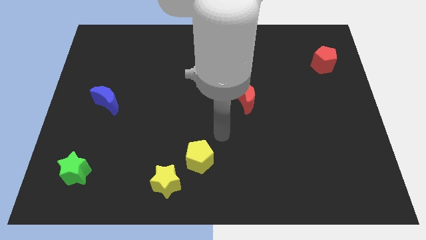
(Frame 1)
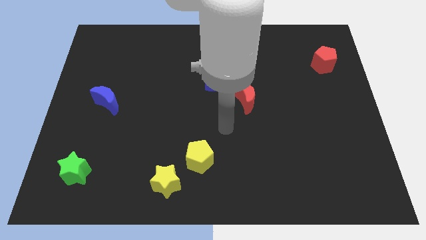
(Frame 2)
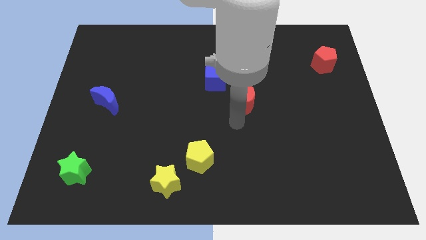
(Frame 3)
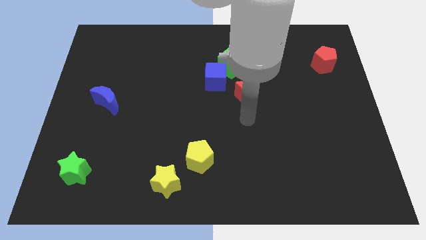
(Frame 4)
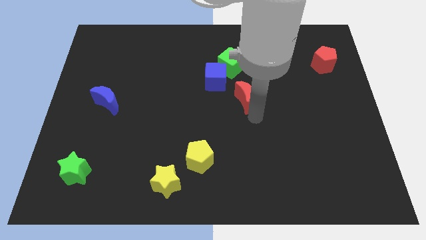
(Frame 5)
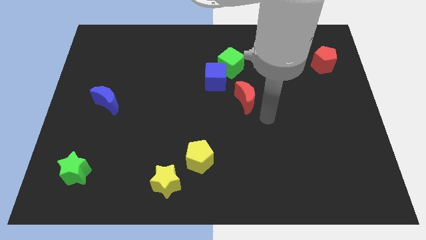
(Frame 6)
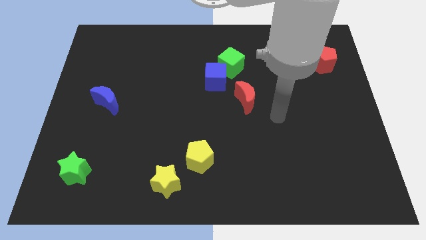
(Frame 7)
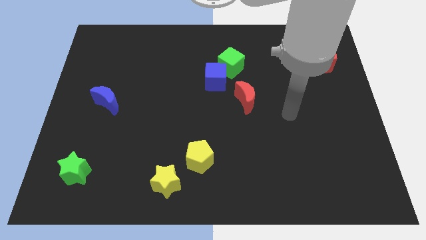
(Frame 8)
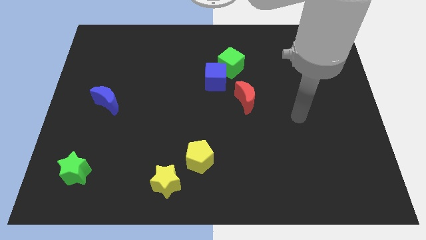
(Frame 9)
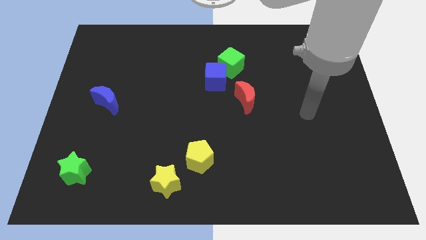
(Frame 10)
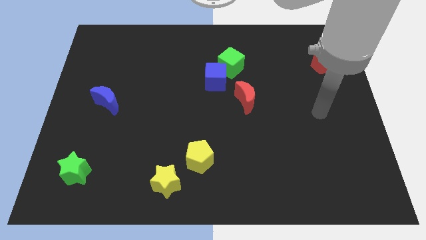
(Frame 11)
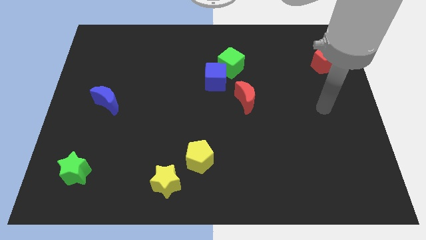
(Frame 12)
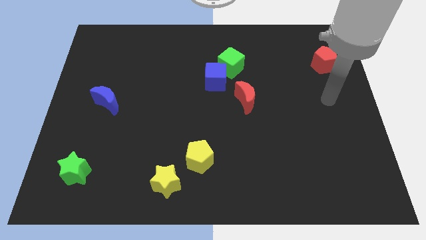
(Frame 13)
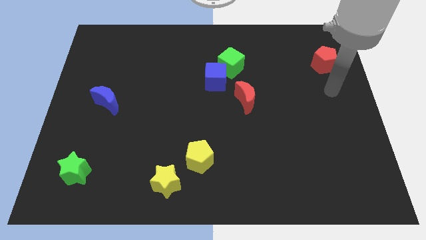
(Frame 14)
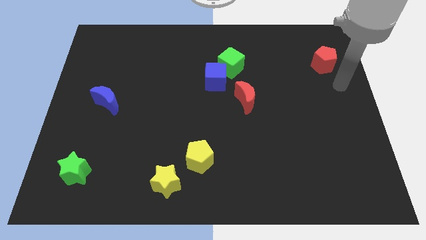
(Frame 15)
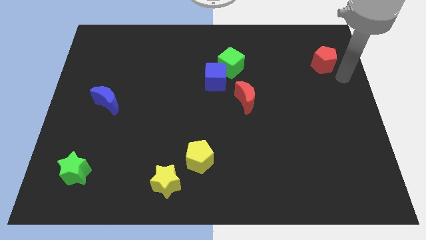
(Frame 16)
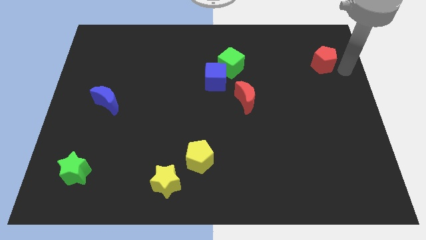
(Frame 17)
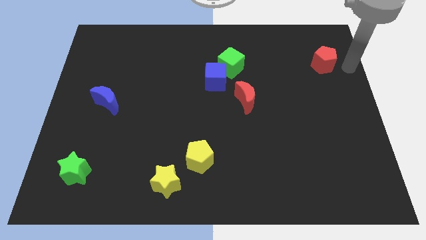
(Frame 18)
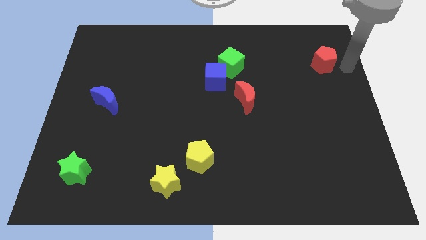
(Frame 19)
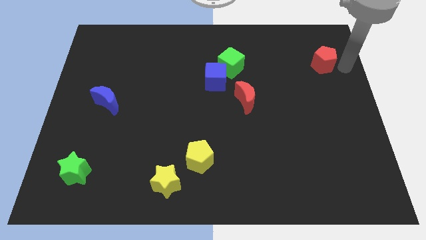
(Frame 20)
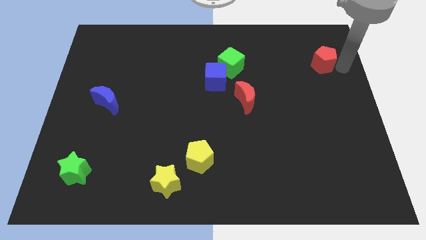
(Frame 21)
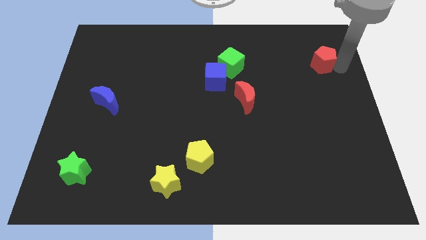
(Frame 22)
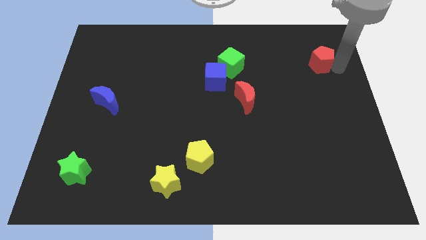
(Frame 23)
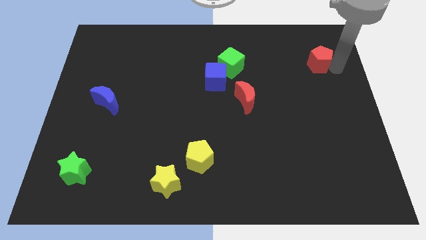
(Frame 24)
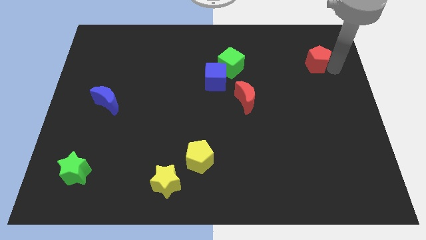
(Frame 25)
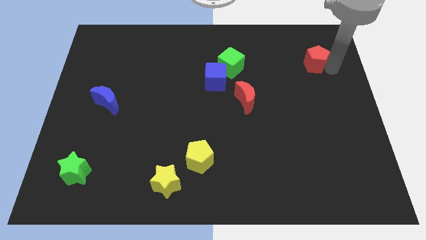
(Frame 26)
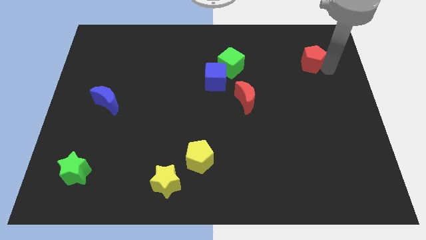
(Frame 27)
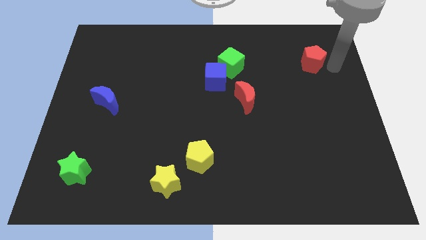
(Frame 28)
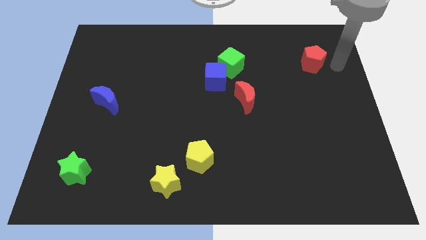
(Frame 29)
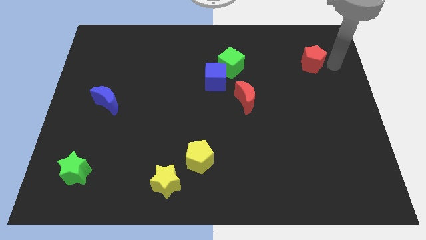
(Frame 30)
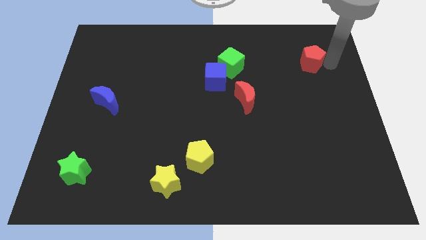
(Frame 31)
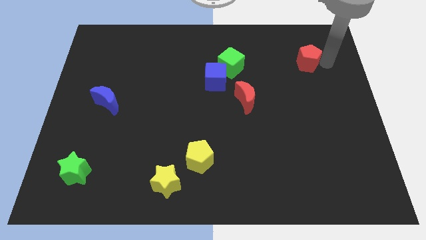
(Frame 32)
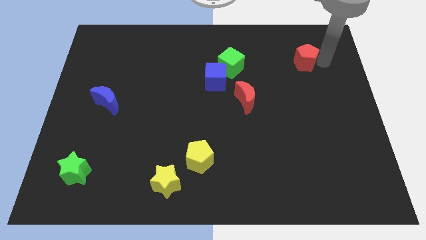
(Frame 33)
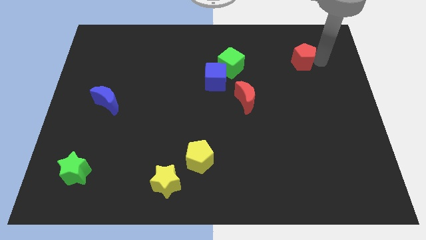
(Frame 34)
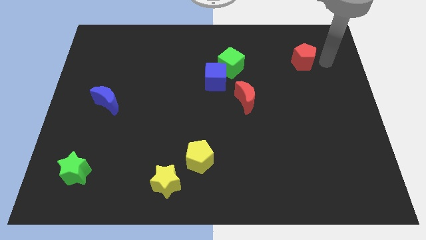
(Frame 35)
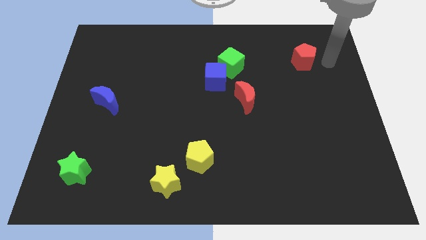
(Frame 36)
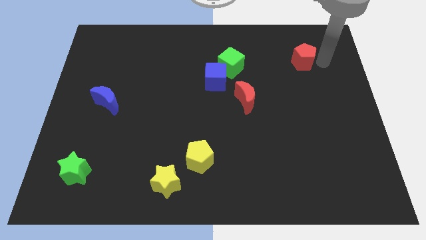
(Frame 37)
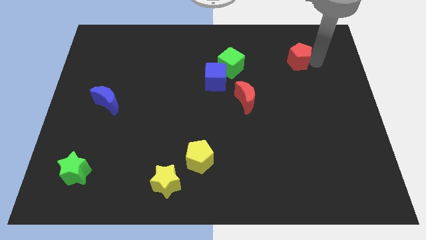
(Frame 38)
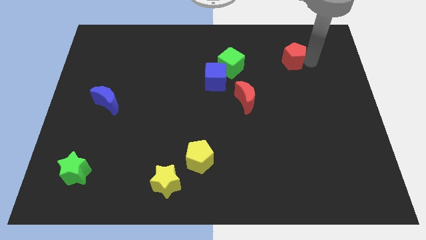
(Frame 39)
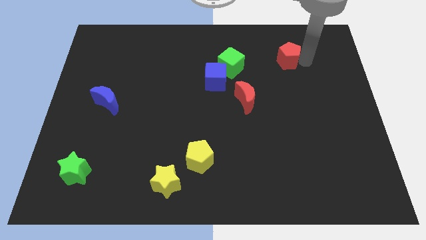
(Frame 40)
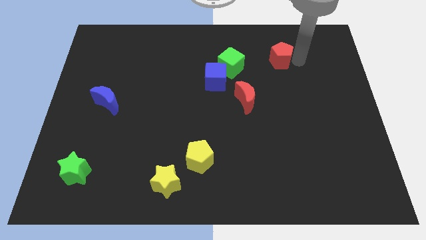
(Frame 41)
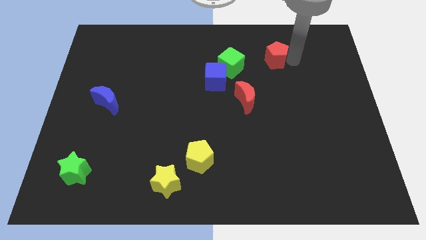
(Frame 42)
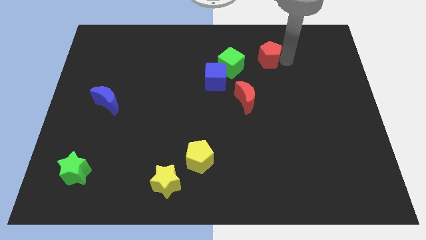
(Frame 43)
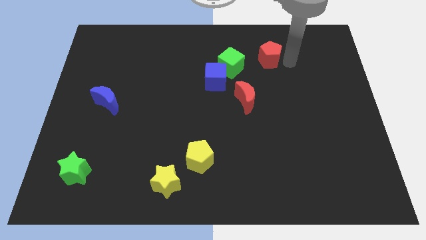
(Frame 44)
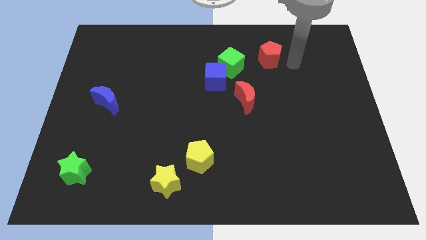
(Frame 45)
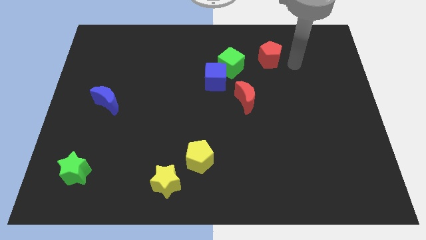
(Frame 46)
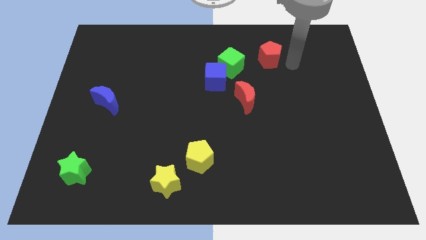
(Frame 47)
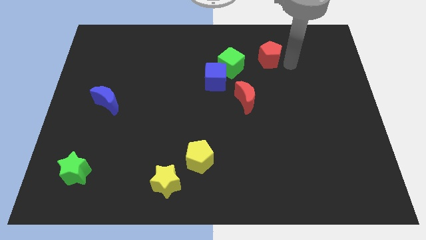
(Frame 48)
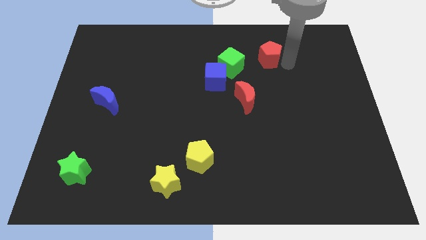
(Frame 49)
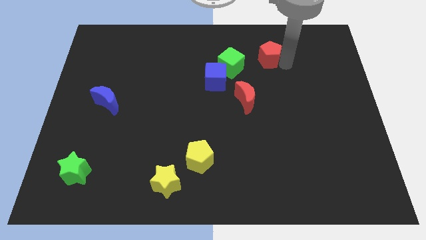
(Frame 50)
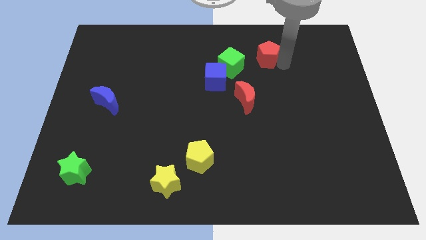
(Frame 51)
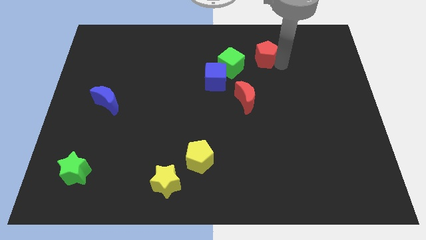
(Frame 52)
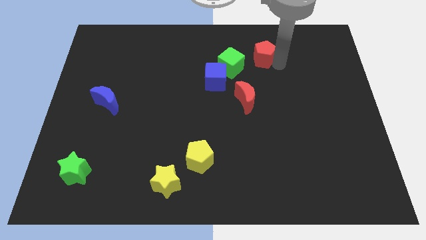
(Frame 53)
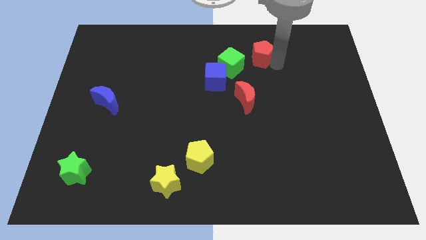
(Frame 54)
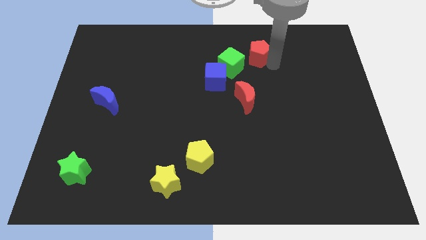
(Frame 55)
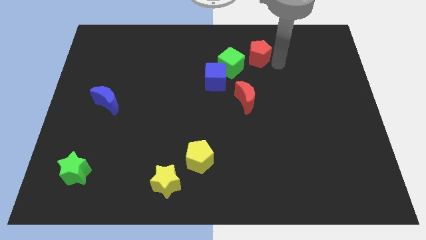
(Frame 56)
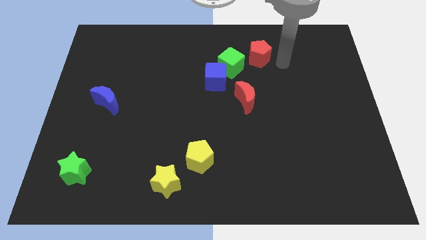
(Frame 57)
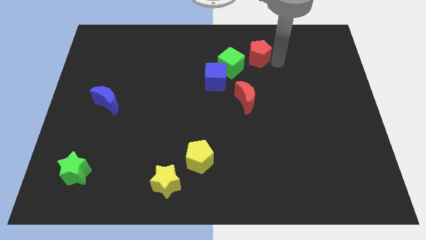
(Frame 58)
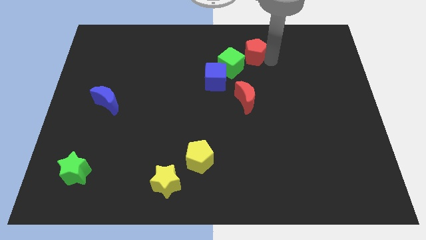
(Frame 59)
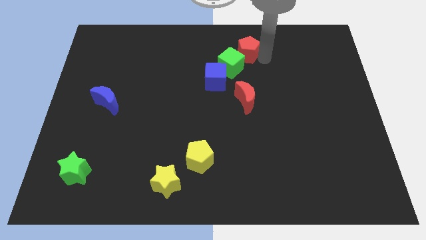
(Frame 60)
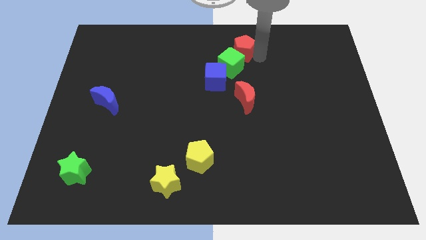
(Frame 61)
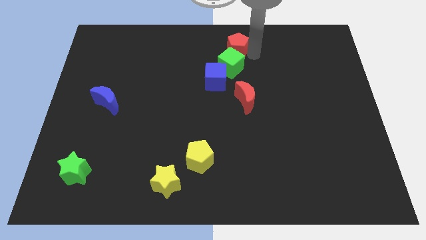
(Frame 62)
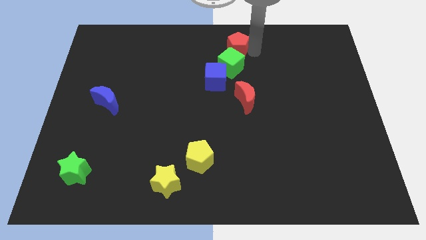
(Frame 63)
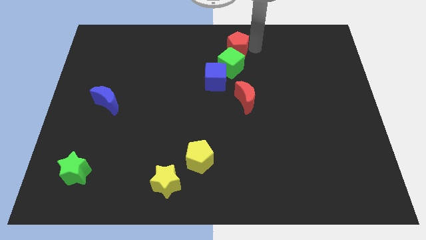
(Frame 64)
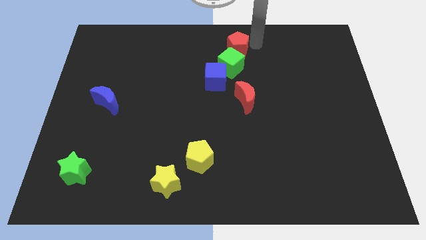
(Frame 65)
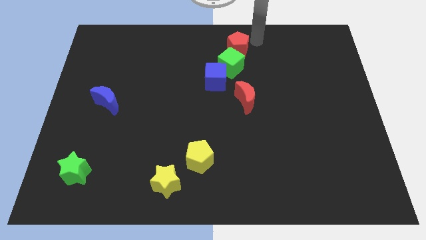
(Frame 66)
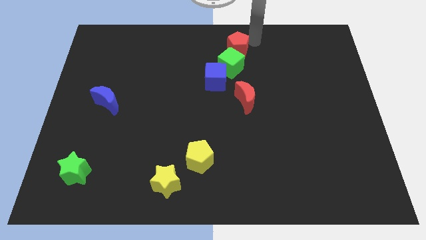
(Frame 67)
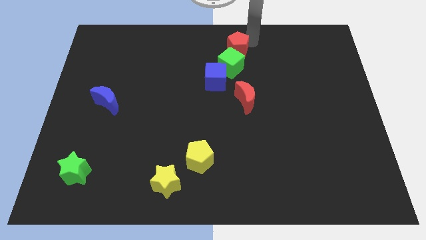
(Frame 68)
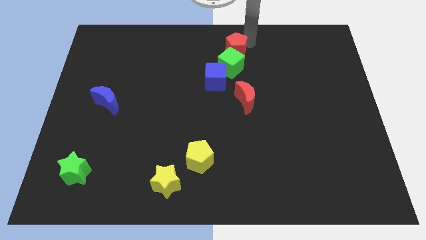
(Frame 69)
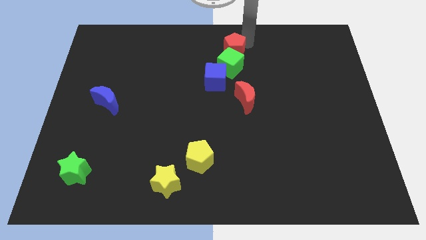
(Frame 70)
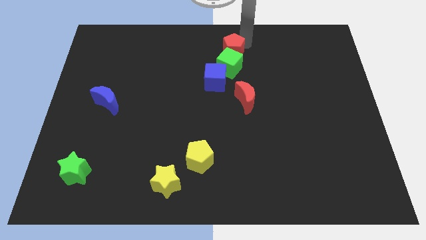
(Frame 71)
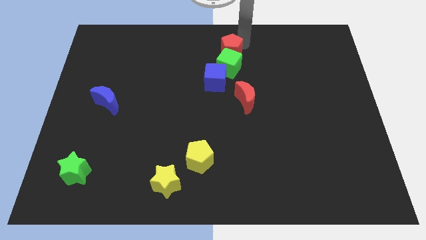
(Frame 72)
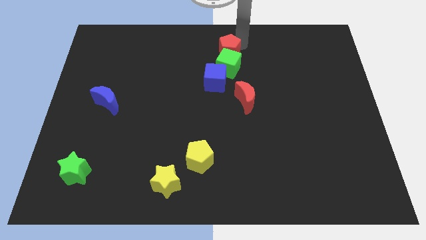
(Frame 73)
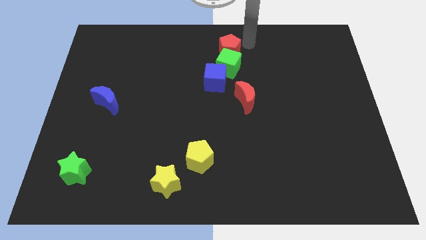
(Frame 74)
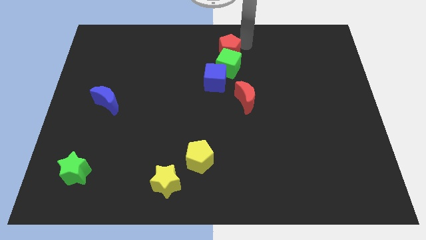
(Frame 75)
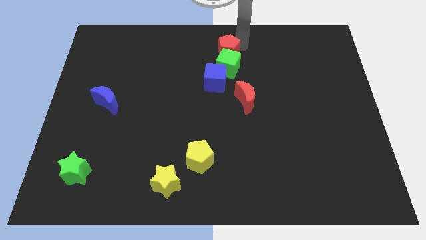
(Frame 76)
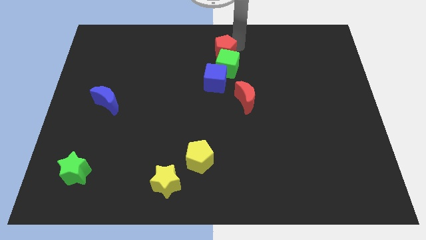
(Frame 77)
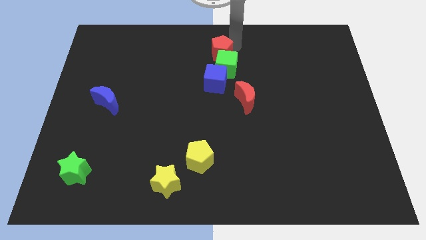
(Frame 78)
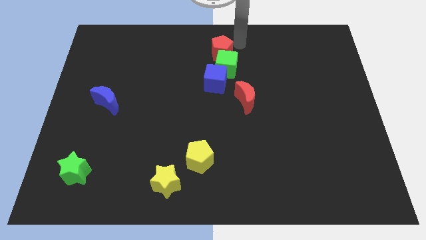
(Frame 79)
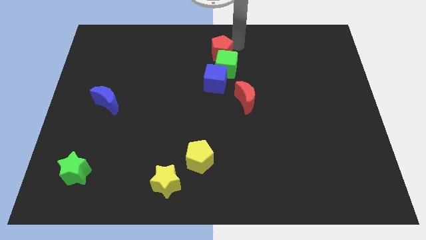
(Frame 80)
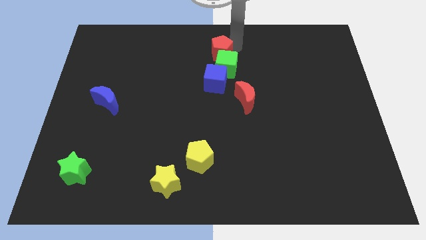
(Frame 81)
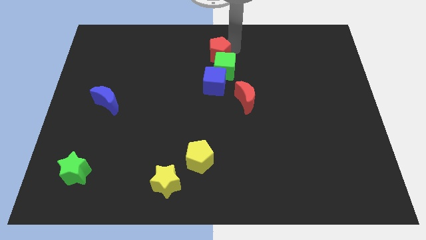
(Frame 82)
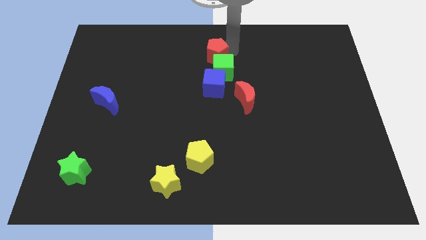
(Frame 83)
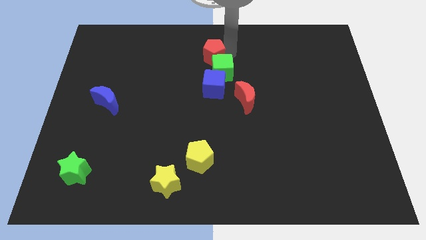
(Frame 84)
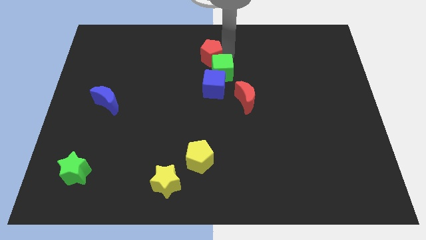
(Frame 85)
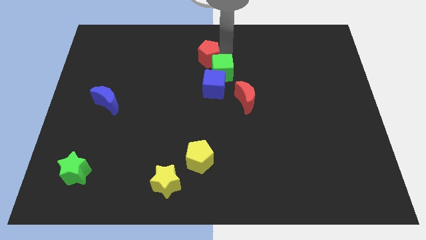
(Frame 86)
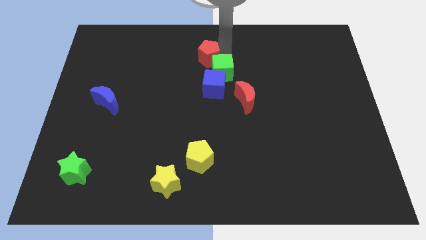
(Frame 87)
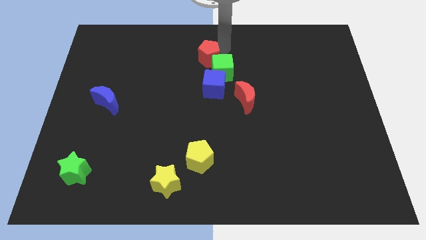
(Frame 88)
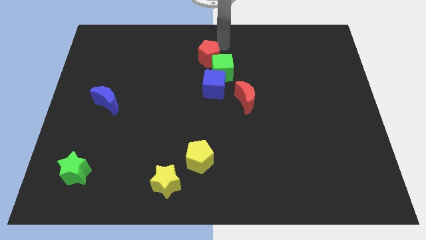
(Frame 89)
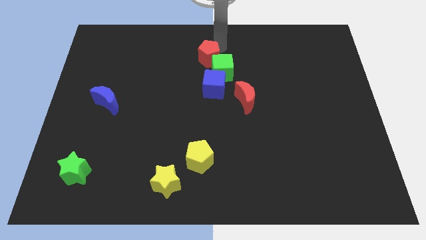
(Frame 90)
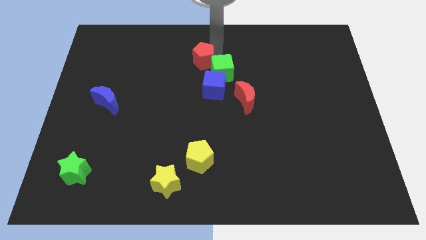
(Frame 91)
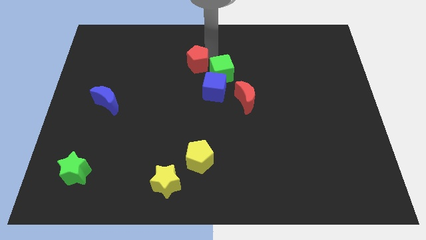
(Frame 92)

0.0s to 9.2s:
put the red pentagon to the top left side of the blue cube
